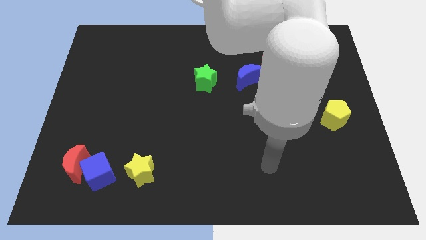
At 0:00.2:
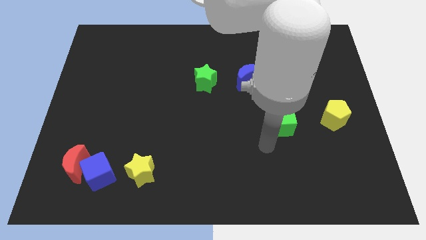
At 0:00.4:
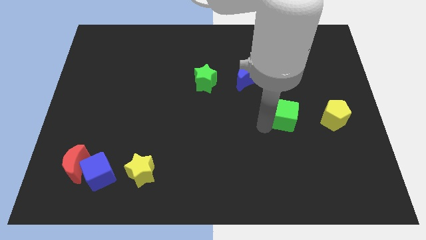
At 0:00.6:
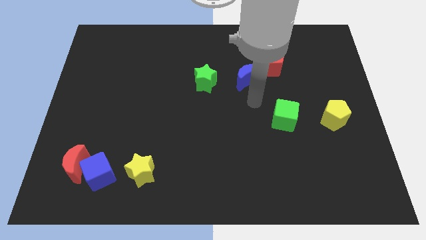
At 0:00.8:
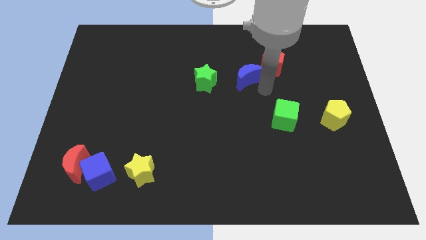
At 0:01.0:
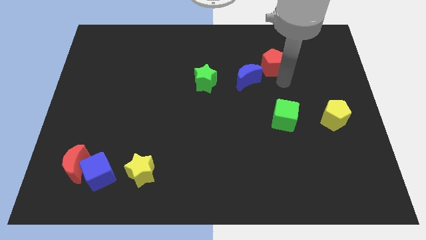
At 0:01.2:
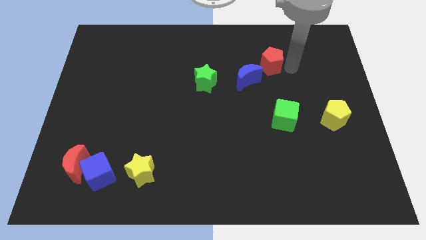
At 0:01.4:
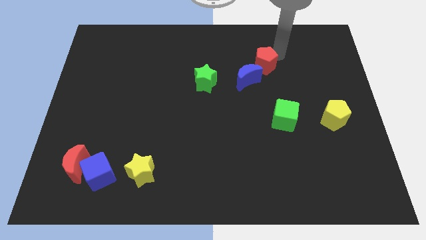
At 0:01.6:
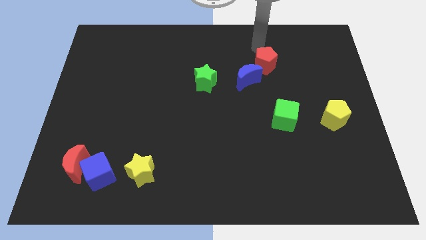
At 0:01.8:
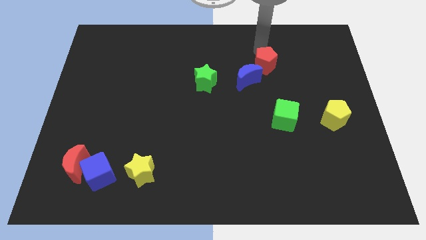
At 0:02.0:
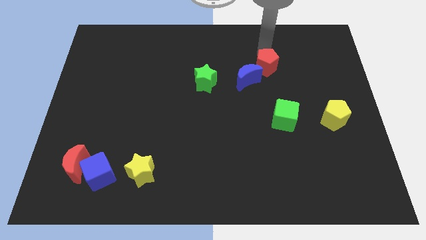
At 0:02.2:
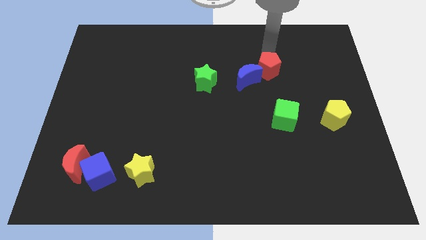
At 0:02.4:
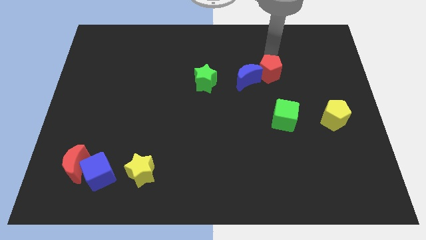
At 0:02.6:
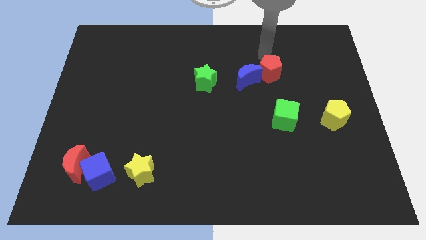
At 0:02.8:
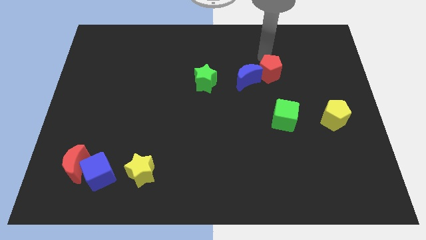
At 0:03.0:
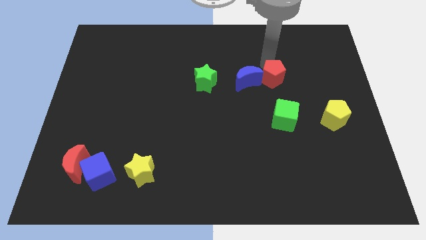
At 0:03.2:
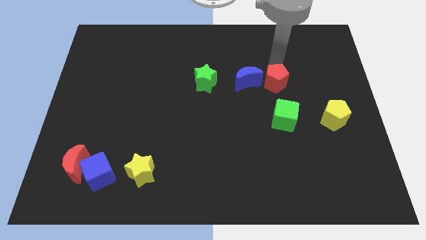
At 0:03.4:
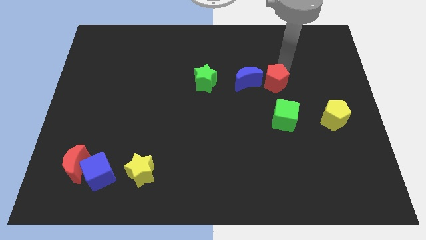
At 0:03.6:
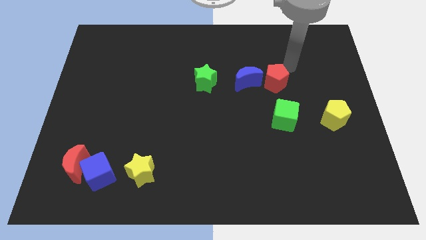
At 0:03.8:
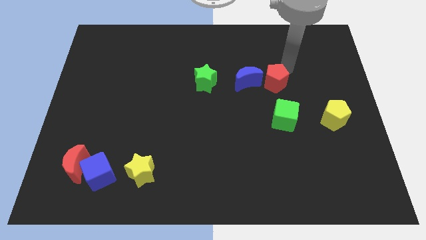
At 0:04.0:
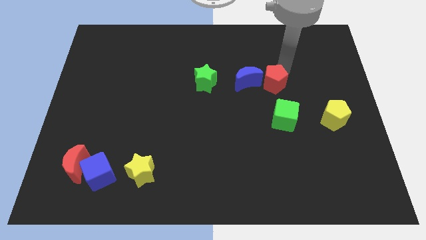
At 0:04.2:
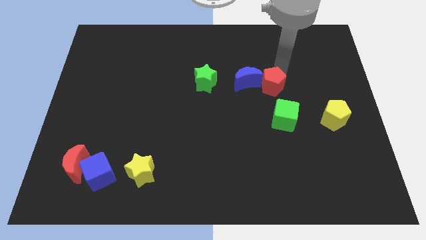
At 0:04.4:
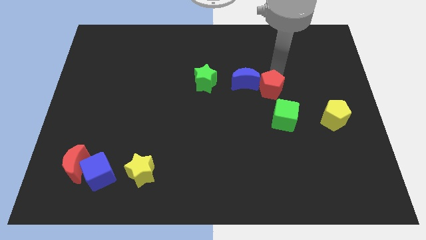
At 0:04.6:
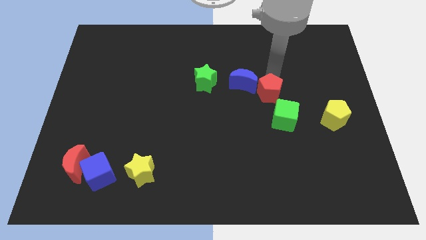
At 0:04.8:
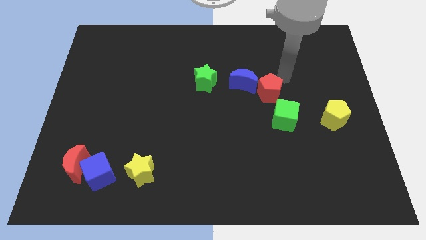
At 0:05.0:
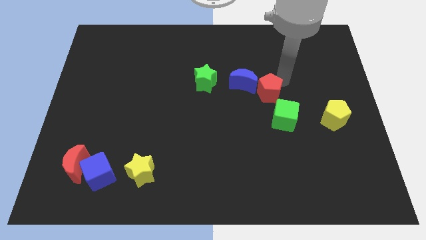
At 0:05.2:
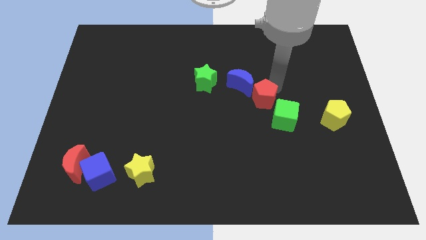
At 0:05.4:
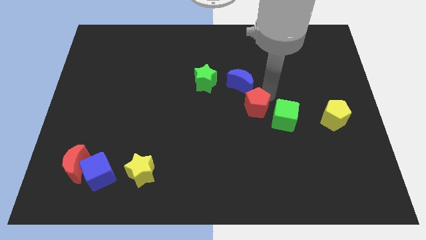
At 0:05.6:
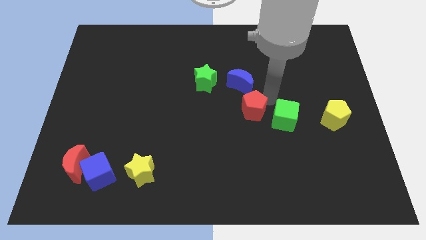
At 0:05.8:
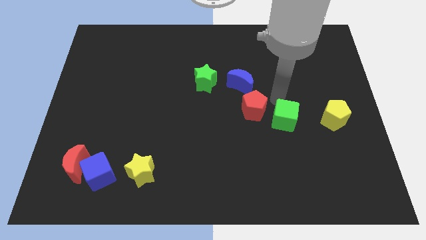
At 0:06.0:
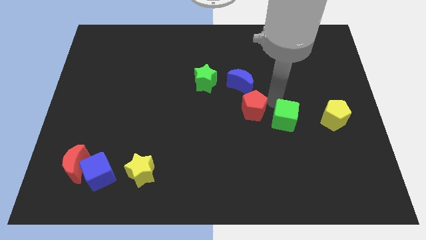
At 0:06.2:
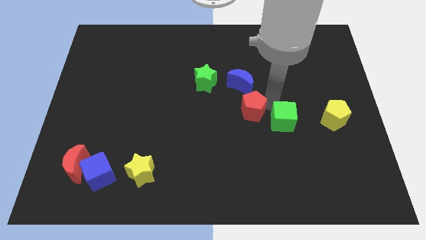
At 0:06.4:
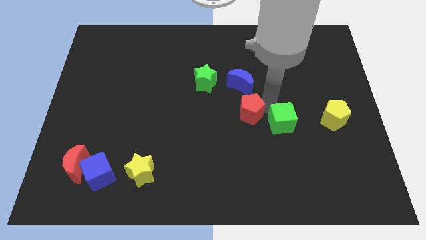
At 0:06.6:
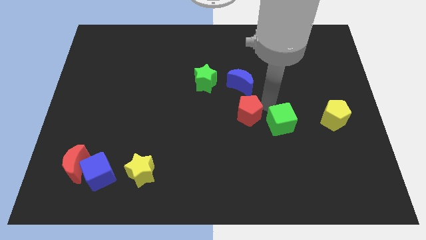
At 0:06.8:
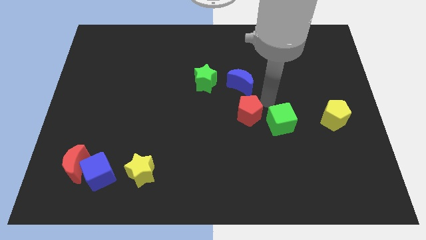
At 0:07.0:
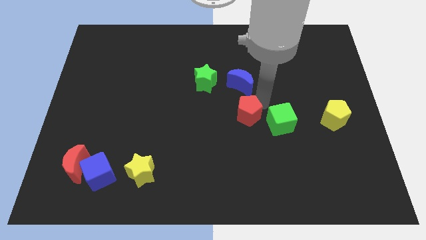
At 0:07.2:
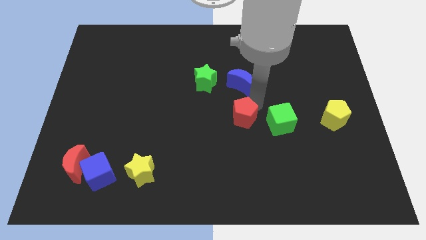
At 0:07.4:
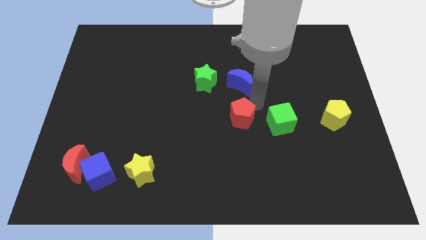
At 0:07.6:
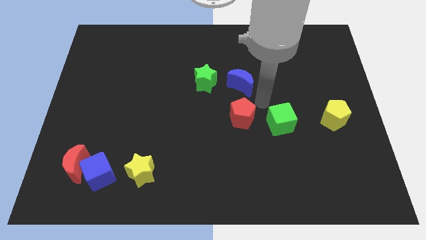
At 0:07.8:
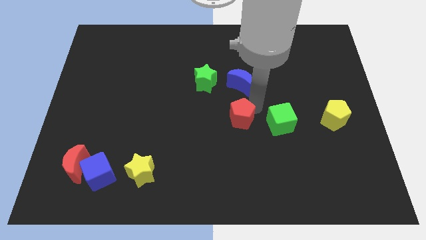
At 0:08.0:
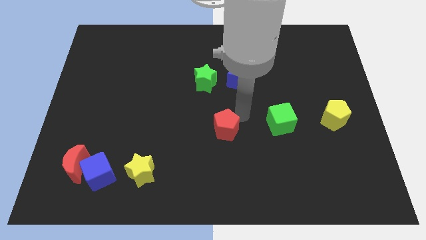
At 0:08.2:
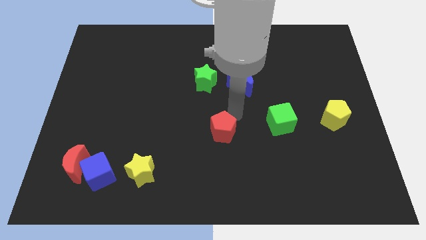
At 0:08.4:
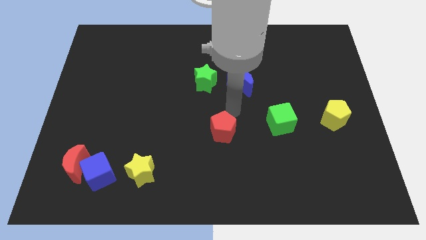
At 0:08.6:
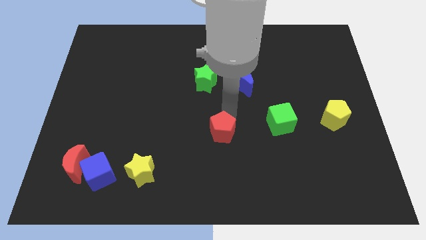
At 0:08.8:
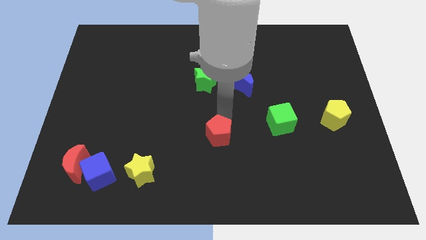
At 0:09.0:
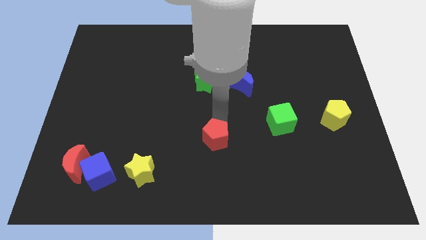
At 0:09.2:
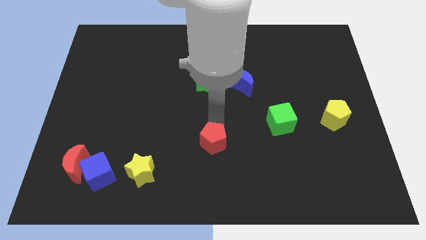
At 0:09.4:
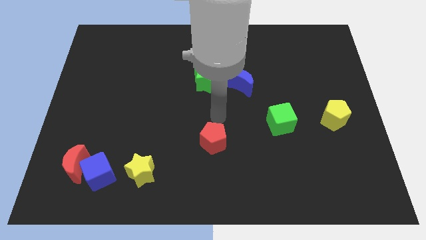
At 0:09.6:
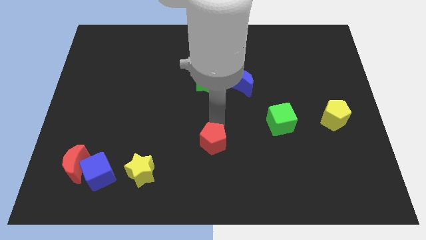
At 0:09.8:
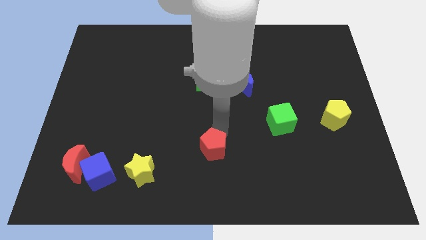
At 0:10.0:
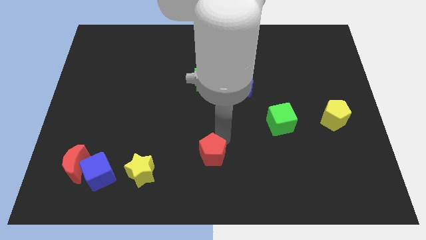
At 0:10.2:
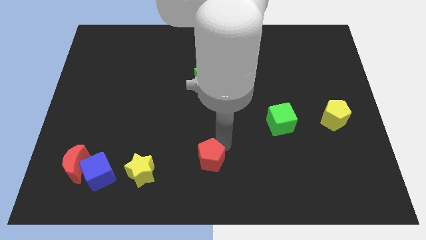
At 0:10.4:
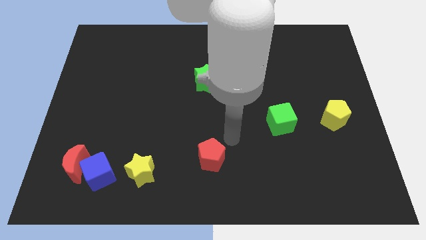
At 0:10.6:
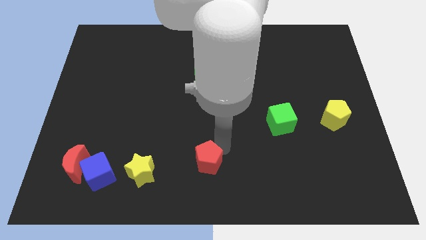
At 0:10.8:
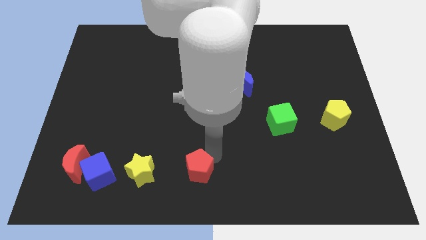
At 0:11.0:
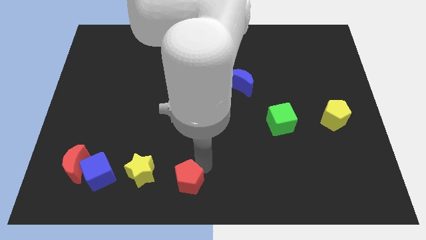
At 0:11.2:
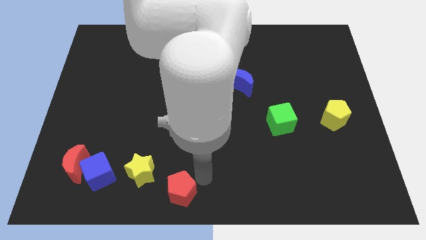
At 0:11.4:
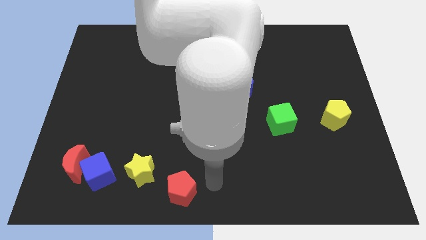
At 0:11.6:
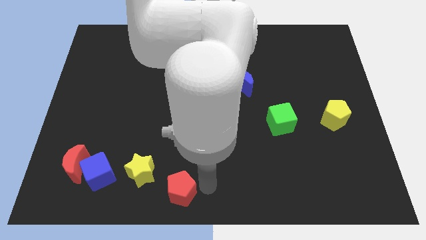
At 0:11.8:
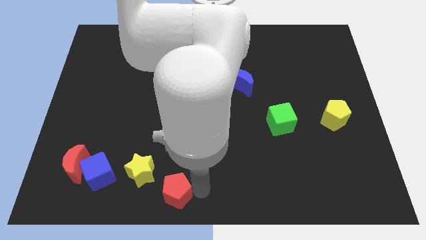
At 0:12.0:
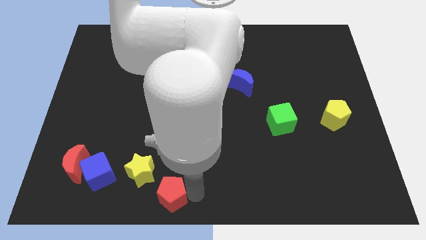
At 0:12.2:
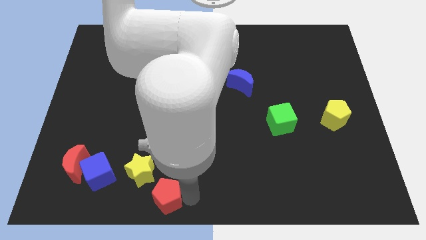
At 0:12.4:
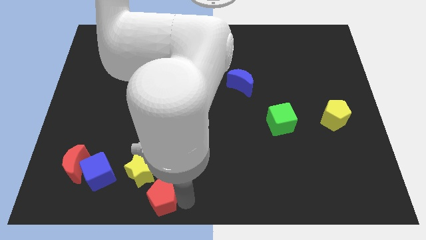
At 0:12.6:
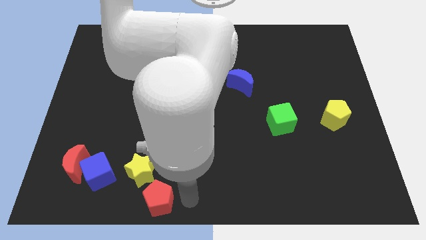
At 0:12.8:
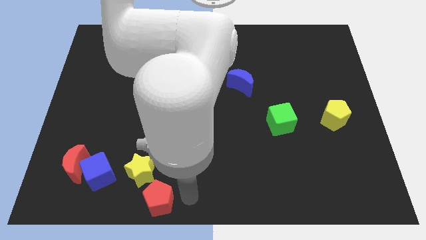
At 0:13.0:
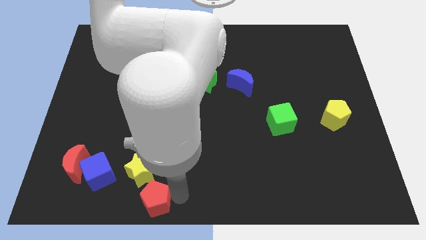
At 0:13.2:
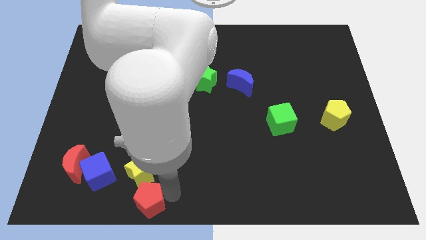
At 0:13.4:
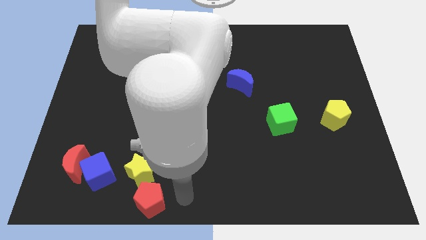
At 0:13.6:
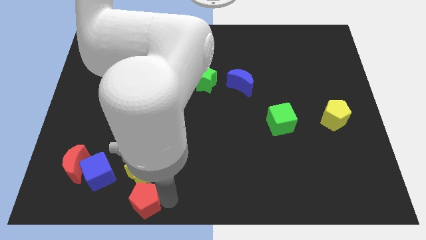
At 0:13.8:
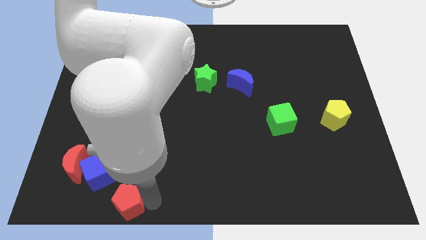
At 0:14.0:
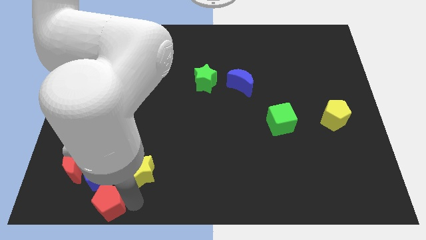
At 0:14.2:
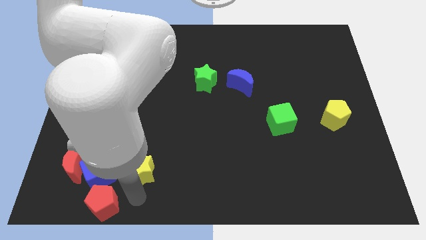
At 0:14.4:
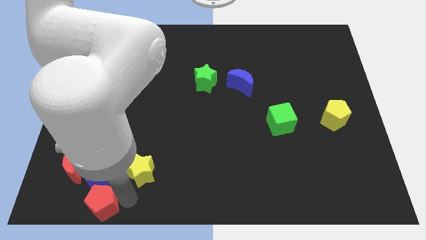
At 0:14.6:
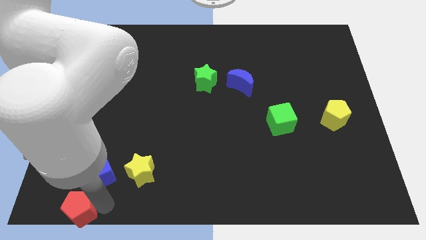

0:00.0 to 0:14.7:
push the red pentagon to the lower left corner
